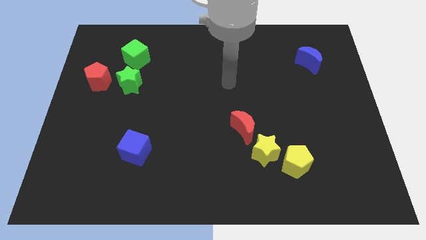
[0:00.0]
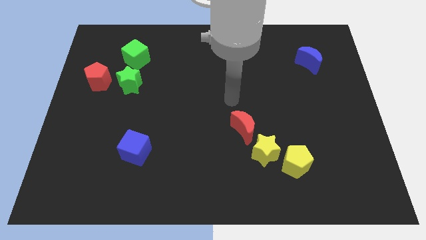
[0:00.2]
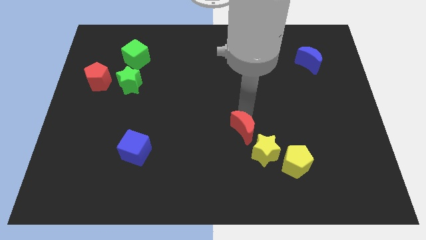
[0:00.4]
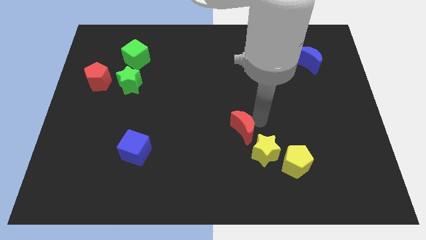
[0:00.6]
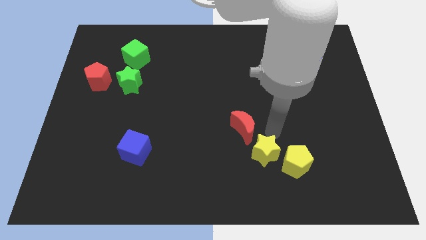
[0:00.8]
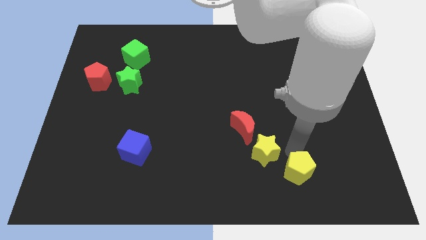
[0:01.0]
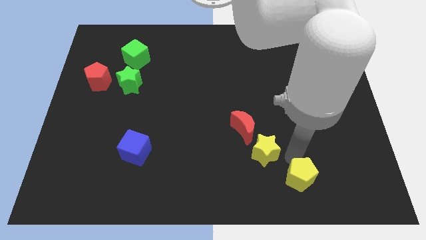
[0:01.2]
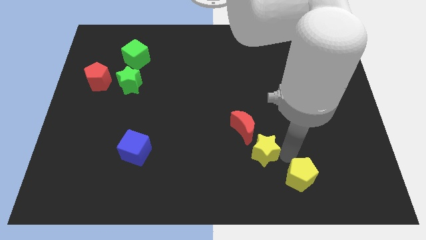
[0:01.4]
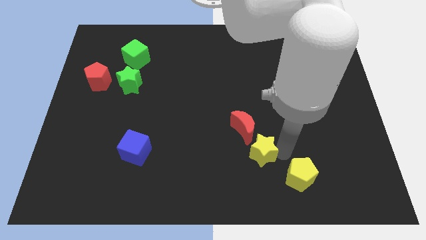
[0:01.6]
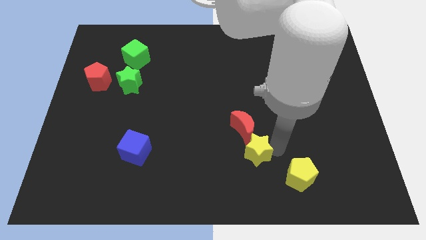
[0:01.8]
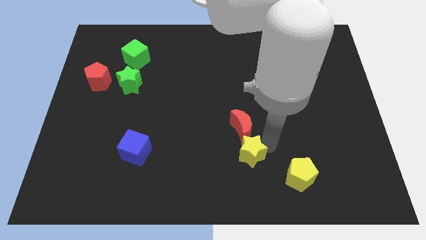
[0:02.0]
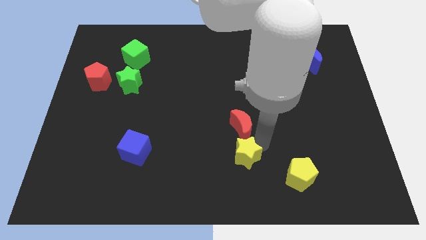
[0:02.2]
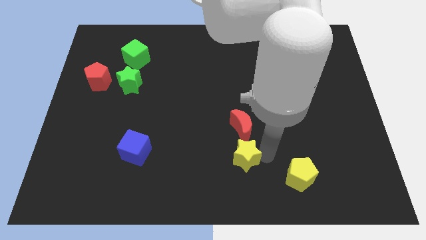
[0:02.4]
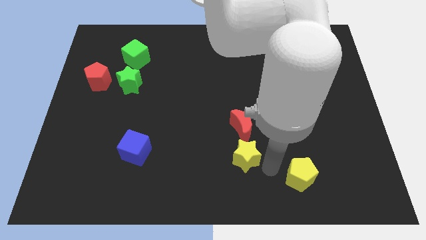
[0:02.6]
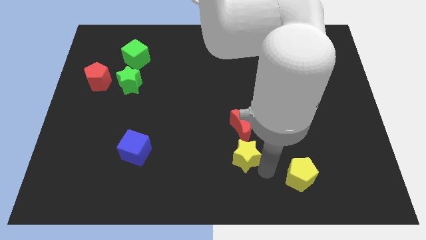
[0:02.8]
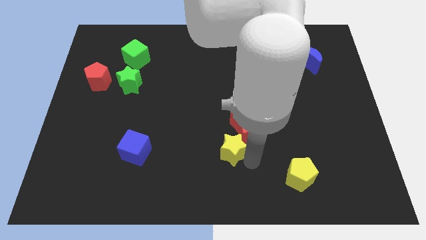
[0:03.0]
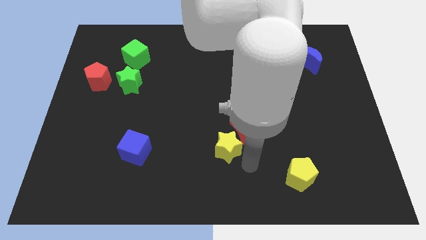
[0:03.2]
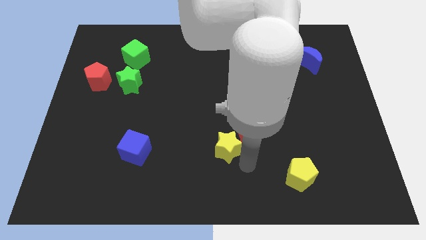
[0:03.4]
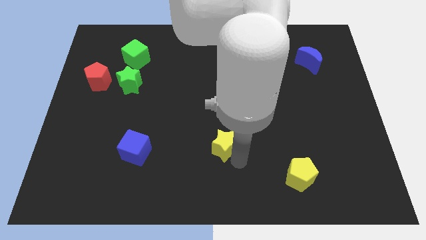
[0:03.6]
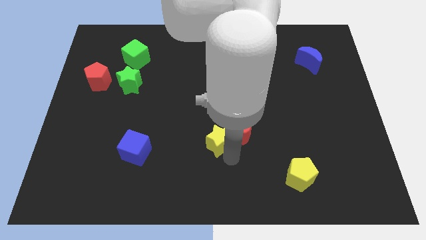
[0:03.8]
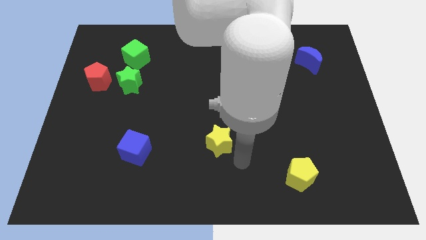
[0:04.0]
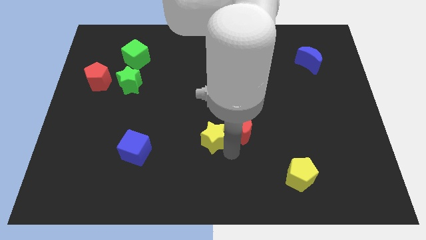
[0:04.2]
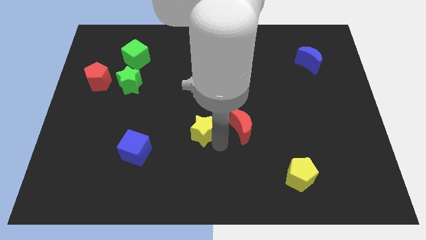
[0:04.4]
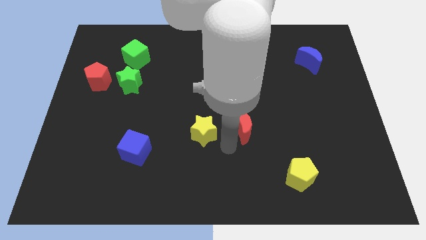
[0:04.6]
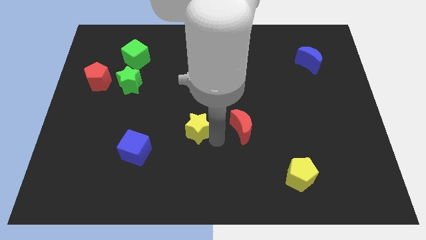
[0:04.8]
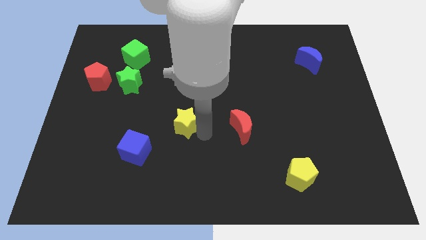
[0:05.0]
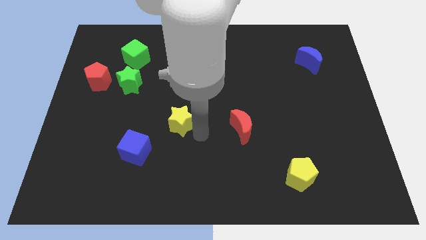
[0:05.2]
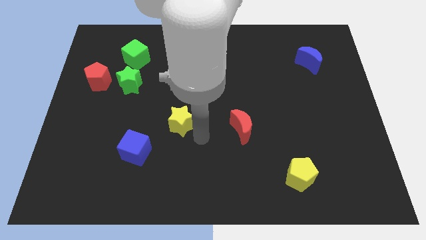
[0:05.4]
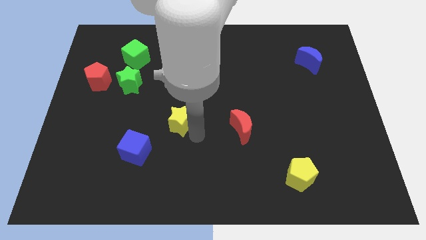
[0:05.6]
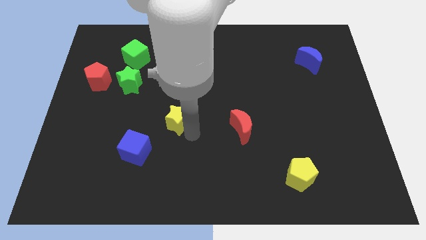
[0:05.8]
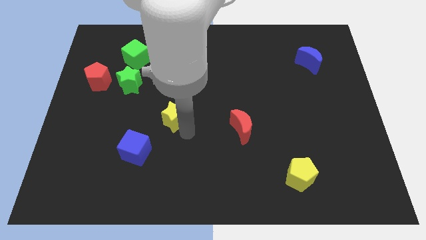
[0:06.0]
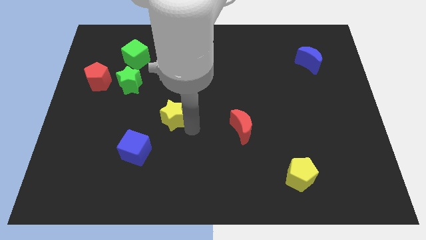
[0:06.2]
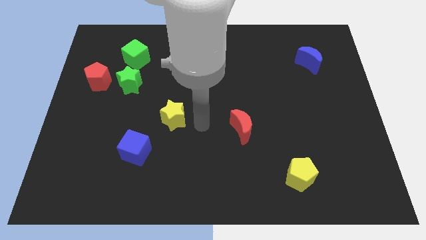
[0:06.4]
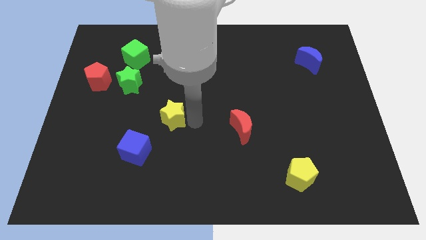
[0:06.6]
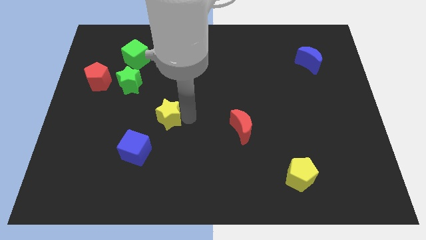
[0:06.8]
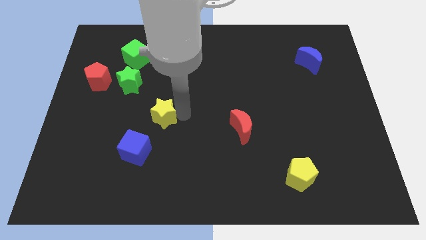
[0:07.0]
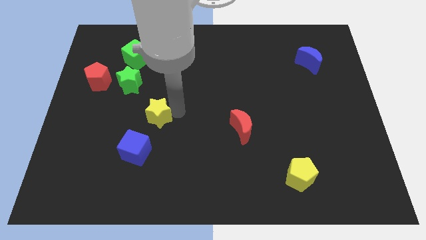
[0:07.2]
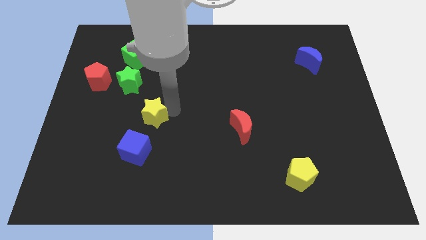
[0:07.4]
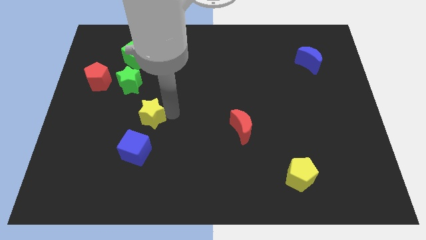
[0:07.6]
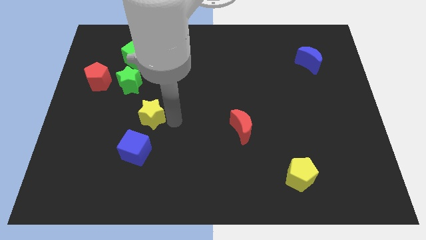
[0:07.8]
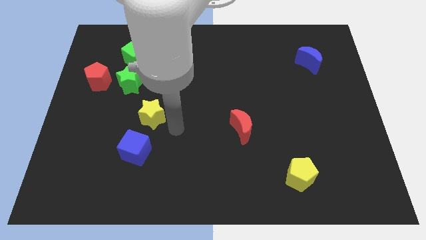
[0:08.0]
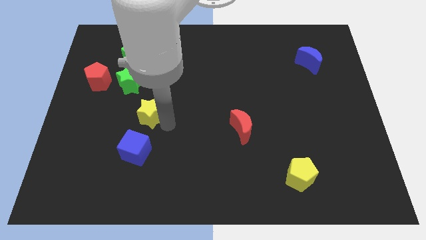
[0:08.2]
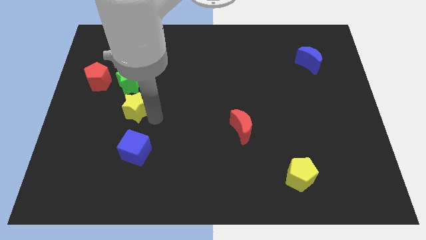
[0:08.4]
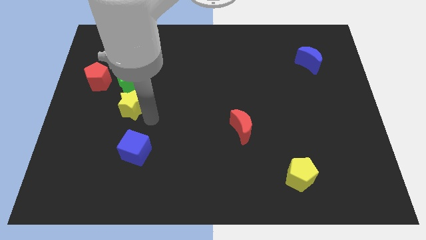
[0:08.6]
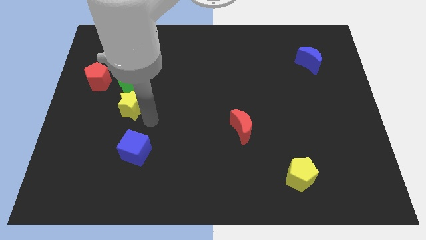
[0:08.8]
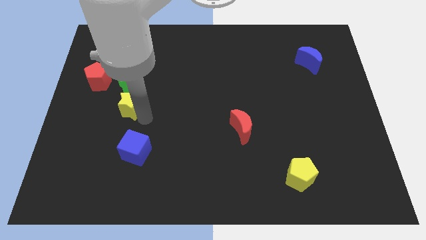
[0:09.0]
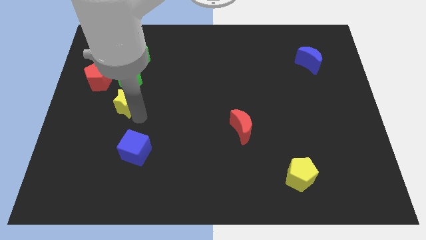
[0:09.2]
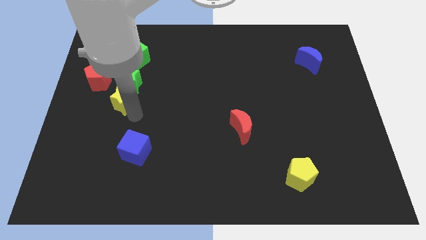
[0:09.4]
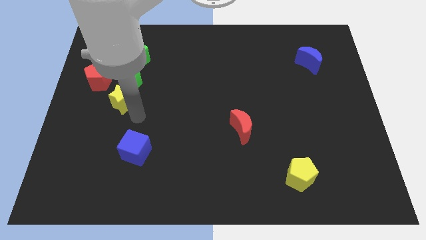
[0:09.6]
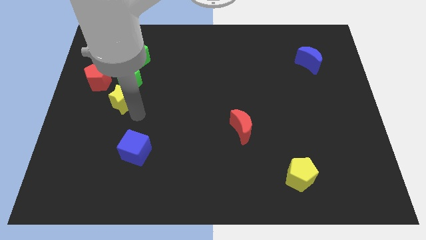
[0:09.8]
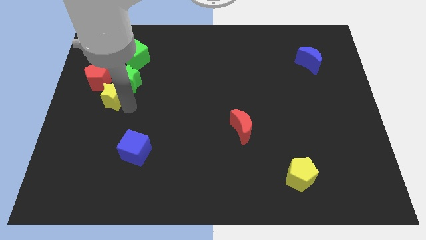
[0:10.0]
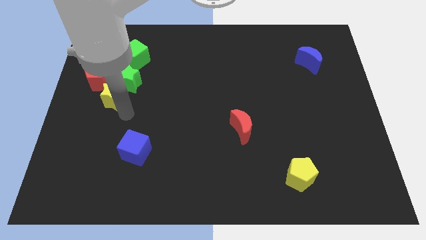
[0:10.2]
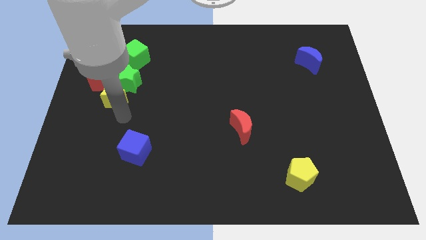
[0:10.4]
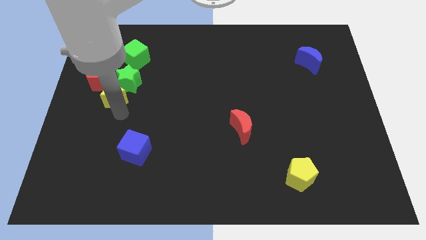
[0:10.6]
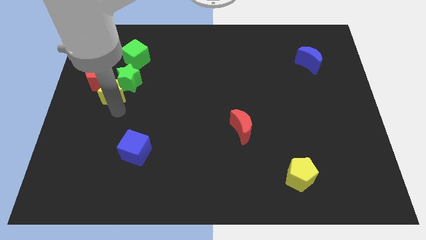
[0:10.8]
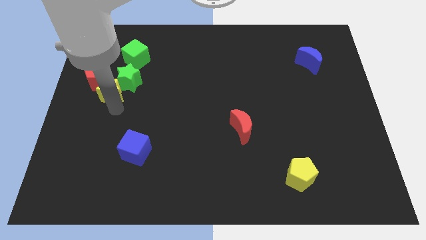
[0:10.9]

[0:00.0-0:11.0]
move the yellow star next to the red pentagon

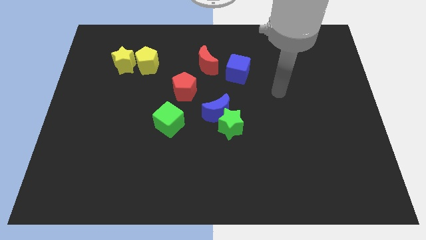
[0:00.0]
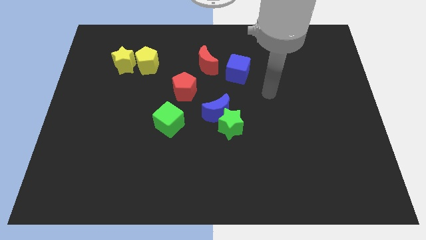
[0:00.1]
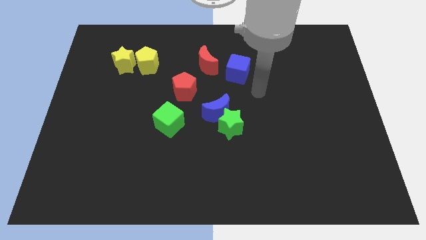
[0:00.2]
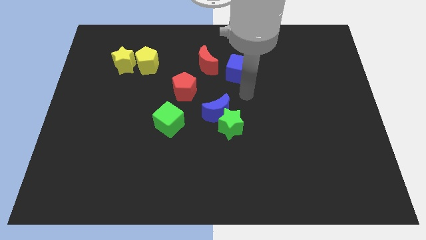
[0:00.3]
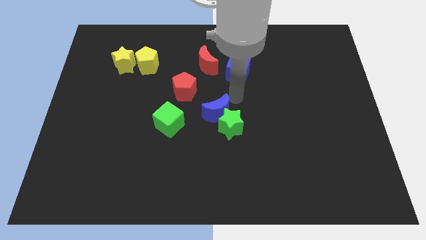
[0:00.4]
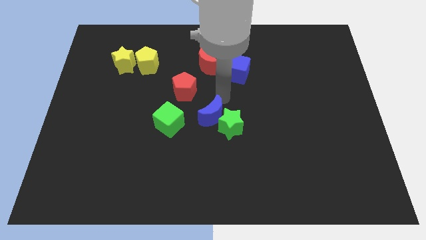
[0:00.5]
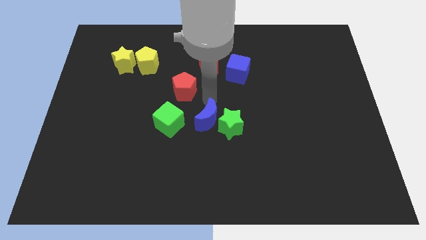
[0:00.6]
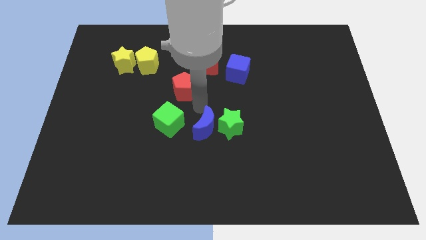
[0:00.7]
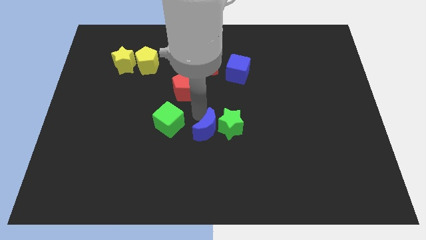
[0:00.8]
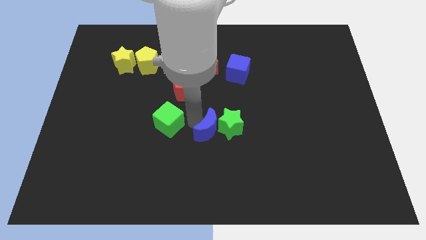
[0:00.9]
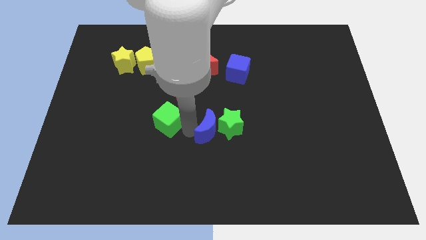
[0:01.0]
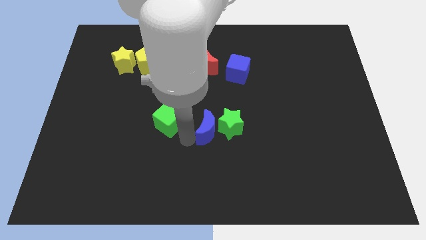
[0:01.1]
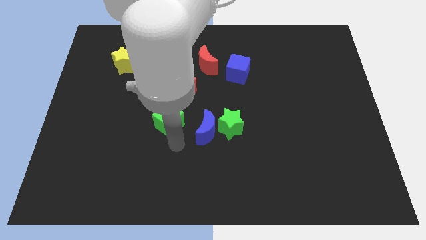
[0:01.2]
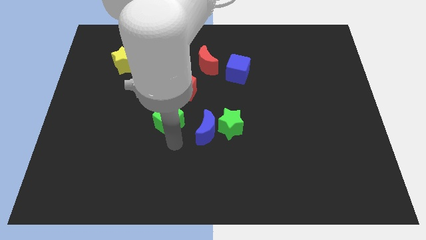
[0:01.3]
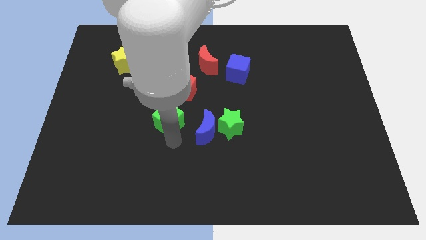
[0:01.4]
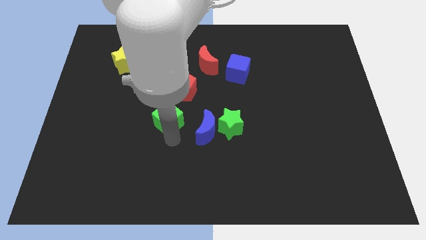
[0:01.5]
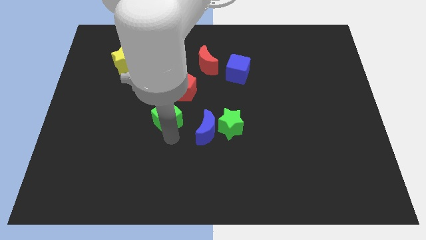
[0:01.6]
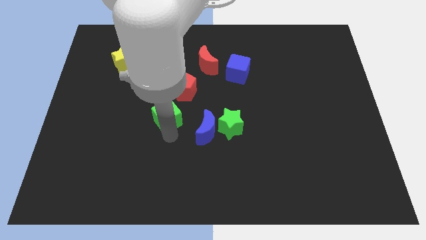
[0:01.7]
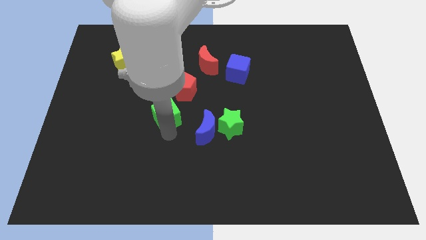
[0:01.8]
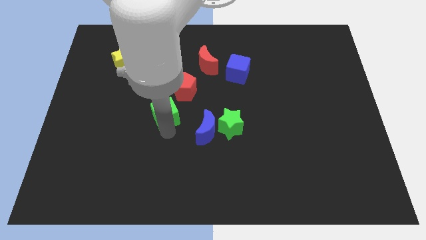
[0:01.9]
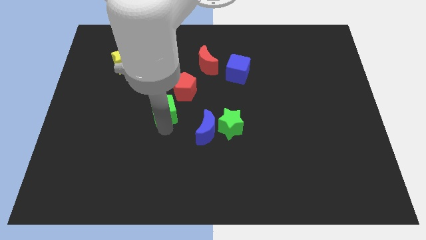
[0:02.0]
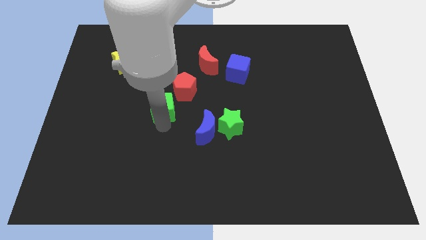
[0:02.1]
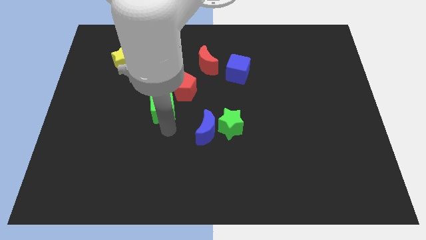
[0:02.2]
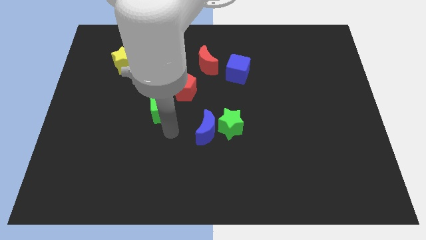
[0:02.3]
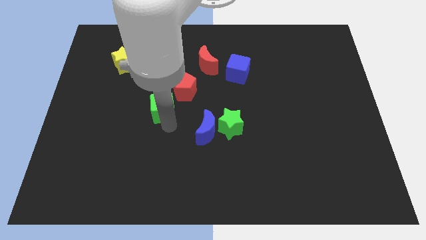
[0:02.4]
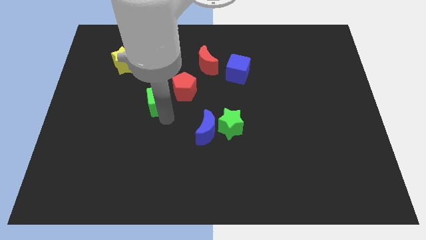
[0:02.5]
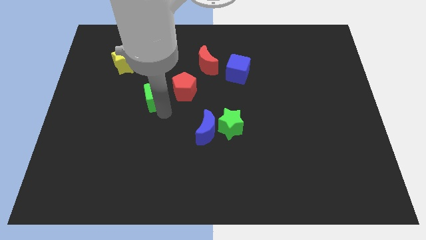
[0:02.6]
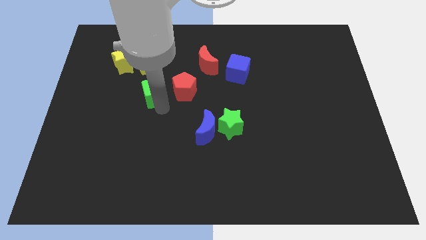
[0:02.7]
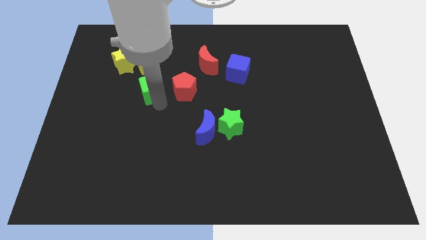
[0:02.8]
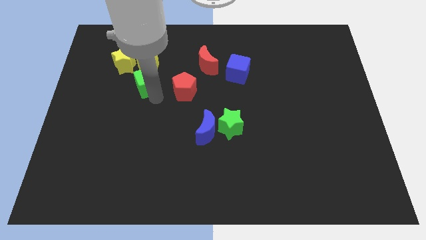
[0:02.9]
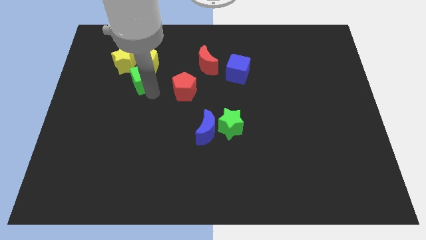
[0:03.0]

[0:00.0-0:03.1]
move the green cube to the yellow pentagon
